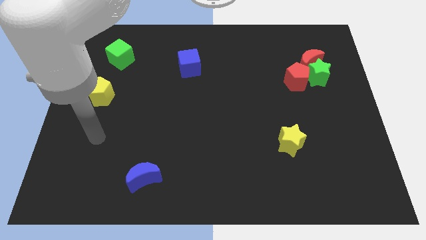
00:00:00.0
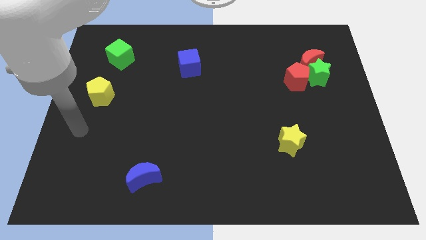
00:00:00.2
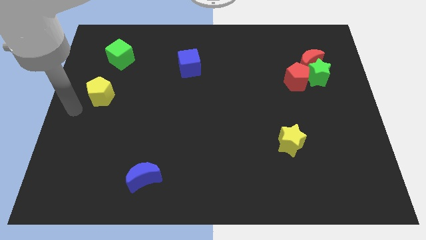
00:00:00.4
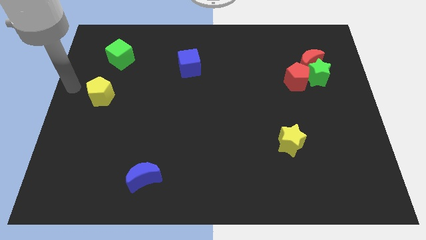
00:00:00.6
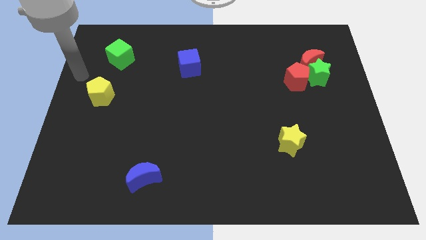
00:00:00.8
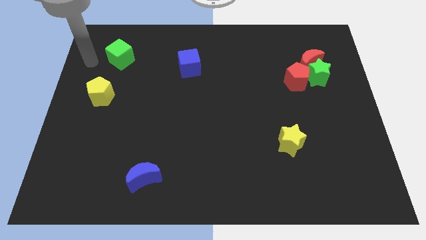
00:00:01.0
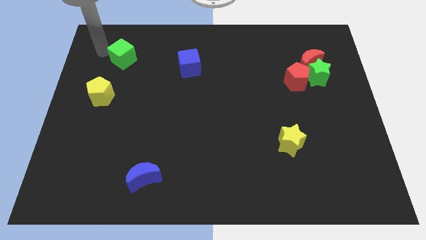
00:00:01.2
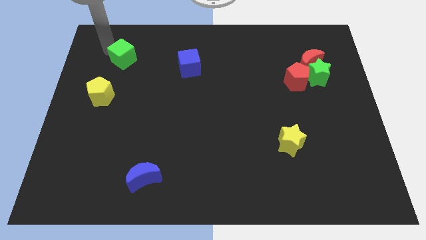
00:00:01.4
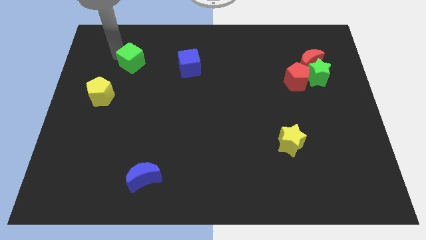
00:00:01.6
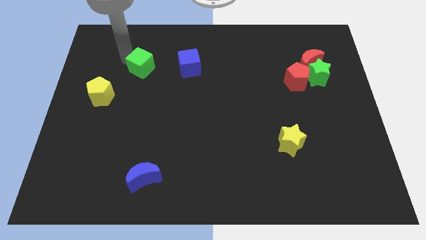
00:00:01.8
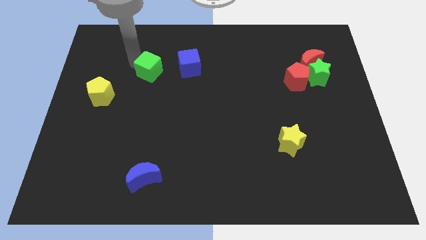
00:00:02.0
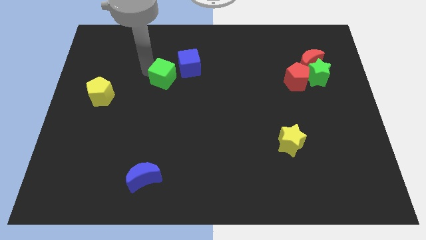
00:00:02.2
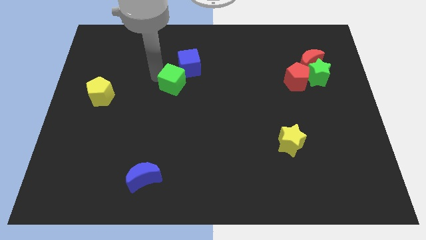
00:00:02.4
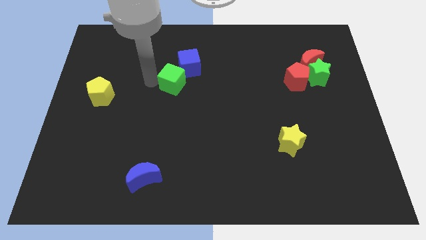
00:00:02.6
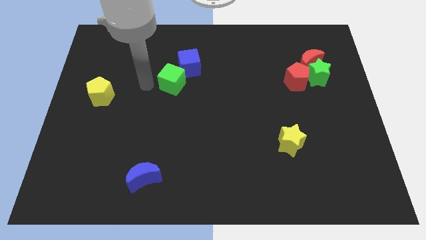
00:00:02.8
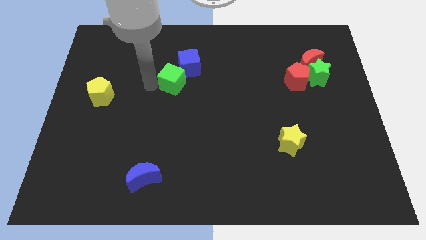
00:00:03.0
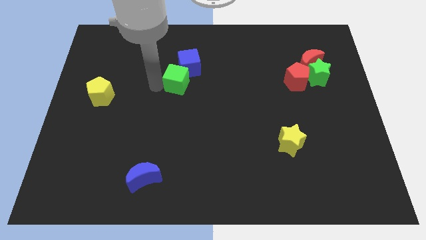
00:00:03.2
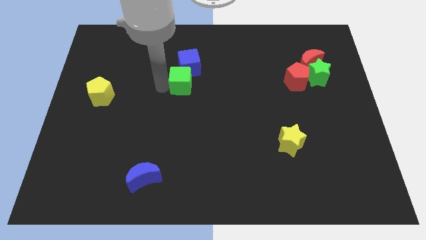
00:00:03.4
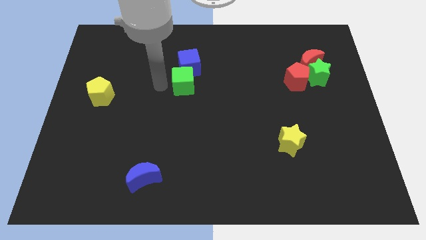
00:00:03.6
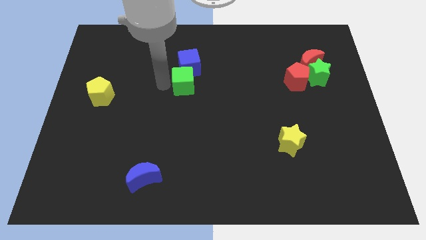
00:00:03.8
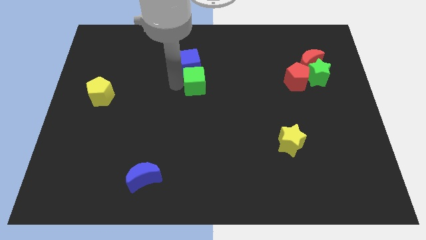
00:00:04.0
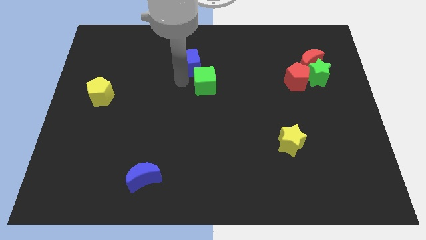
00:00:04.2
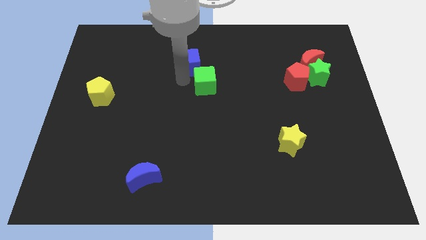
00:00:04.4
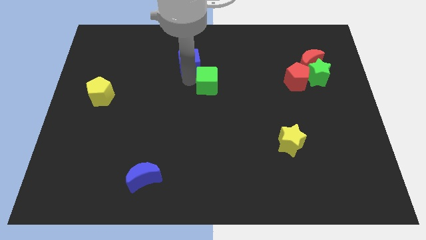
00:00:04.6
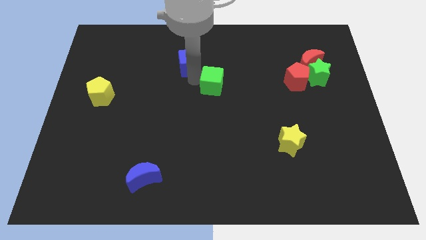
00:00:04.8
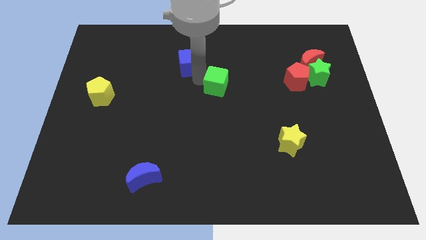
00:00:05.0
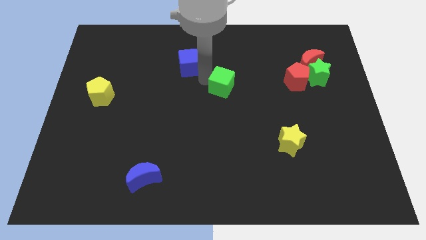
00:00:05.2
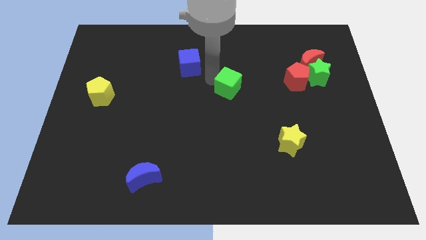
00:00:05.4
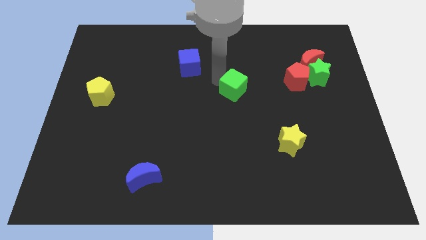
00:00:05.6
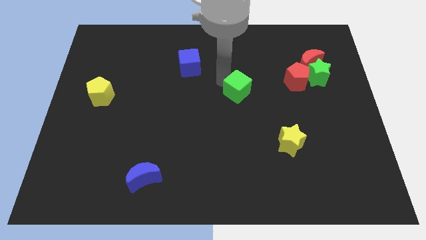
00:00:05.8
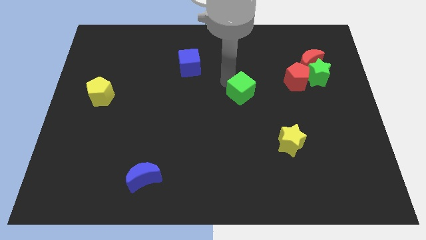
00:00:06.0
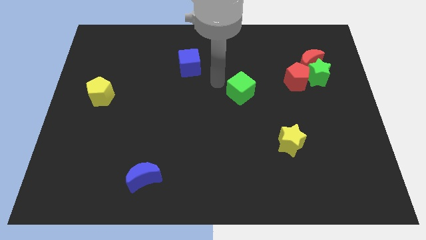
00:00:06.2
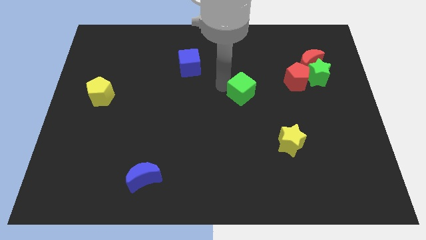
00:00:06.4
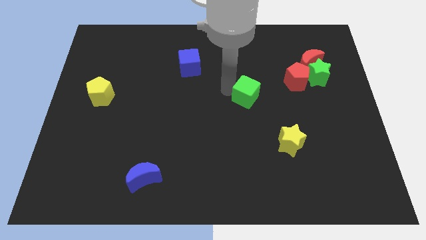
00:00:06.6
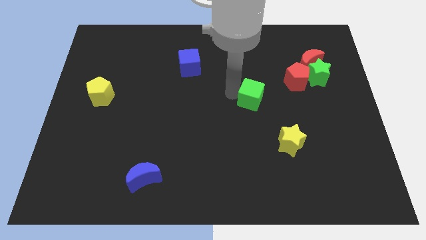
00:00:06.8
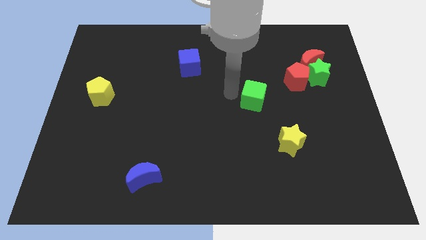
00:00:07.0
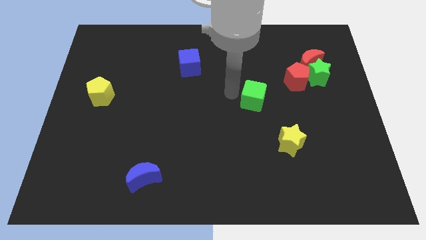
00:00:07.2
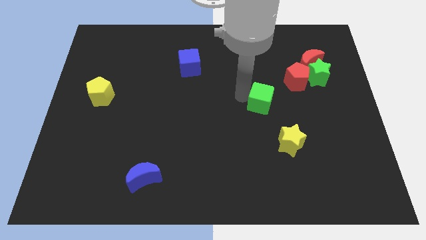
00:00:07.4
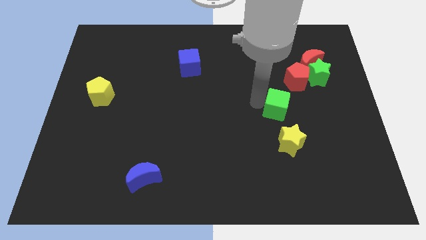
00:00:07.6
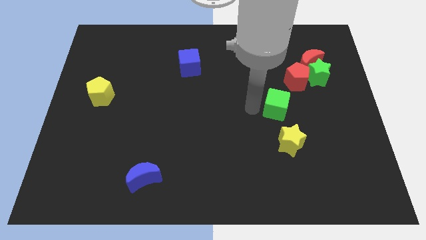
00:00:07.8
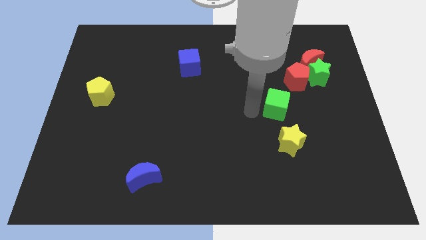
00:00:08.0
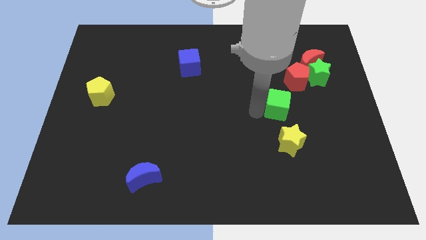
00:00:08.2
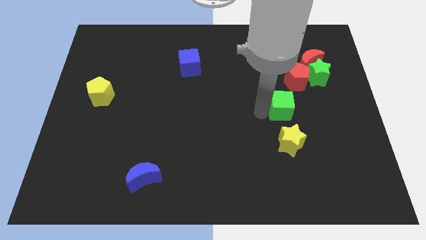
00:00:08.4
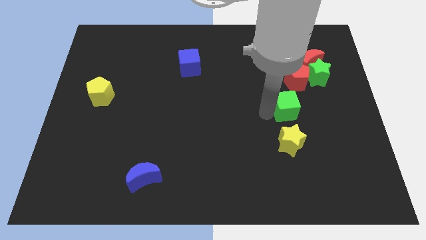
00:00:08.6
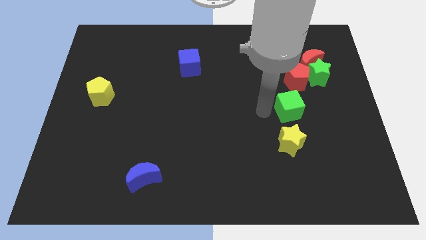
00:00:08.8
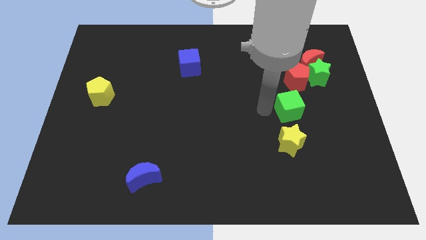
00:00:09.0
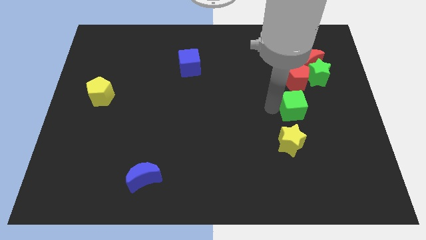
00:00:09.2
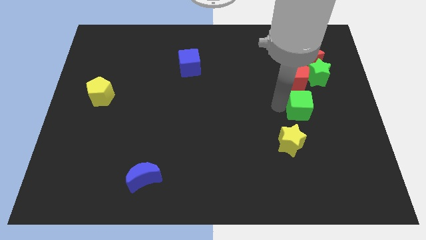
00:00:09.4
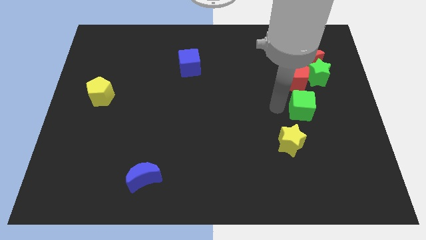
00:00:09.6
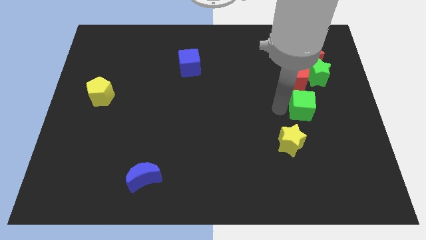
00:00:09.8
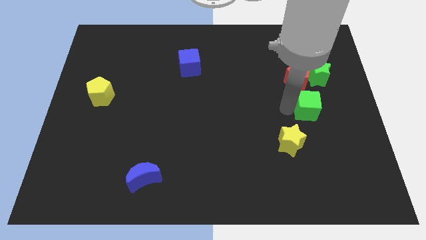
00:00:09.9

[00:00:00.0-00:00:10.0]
move the green cube to the bottom of the green star
